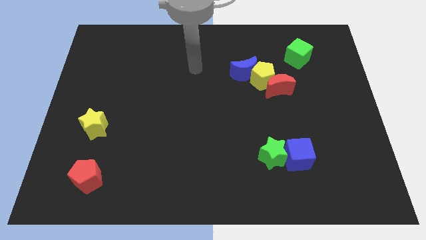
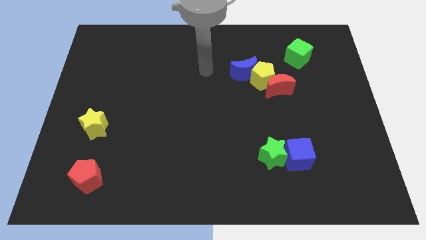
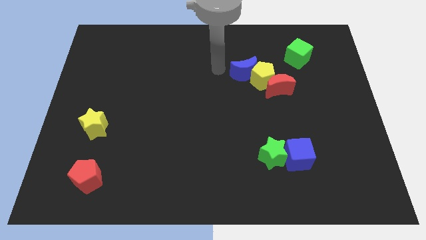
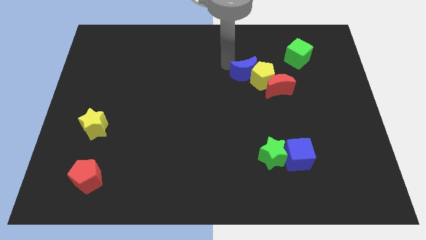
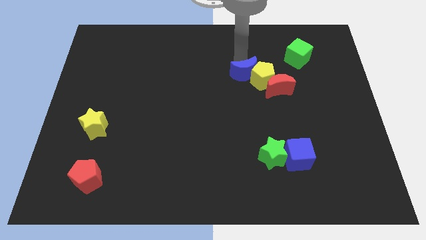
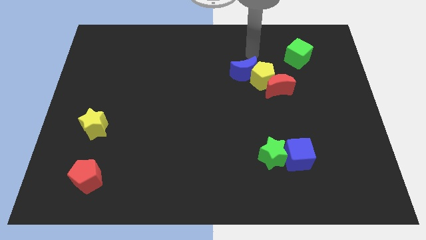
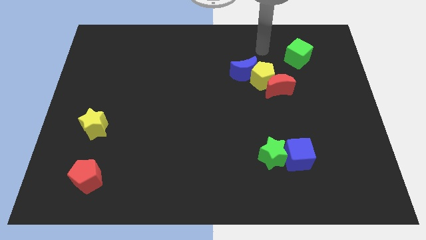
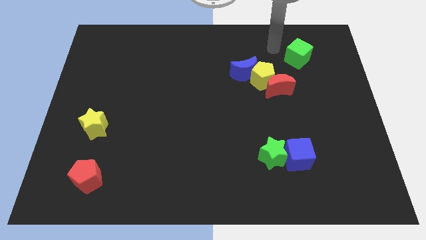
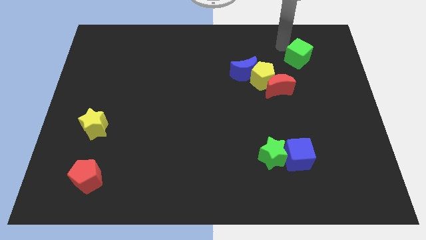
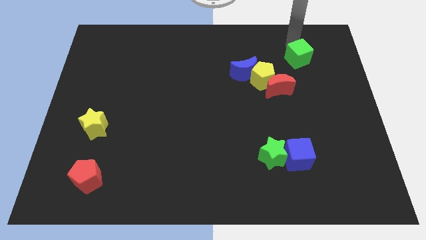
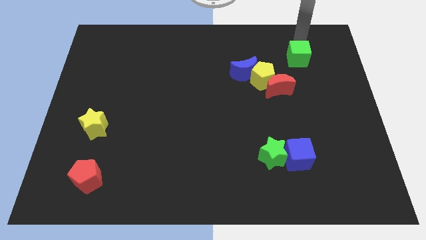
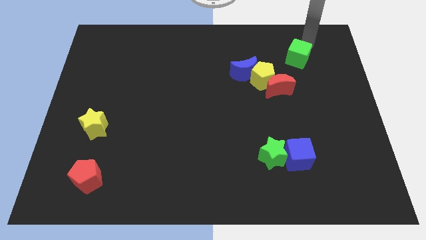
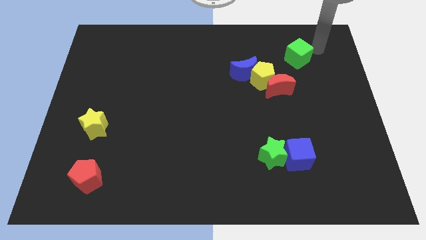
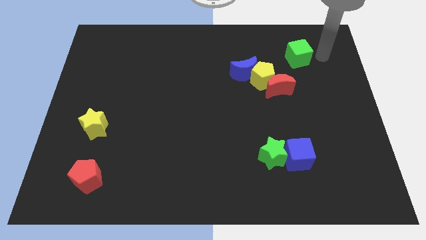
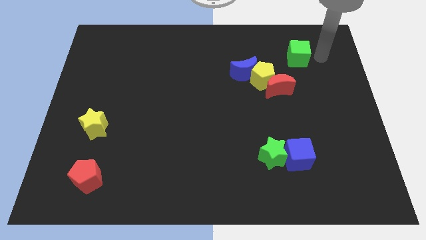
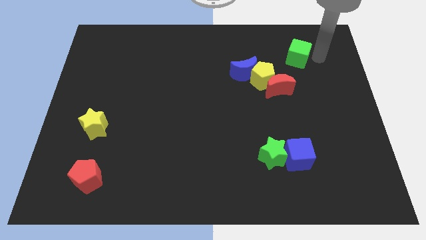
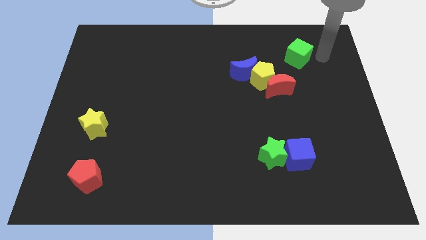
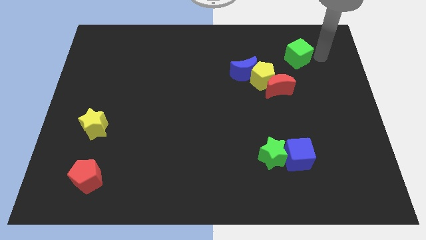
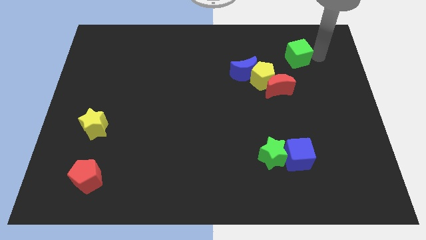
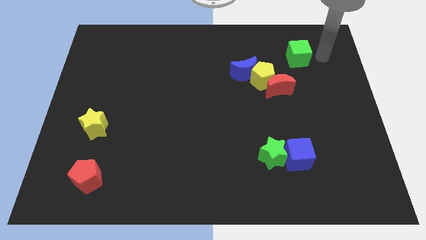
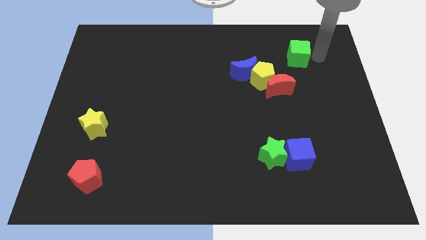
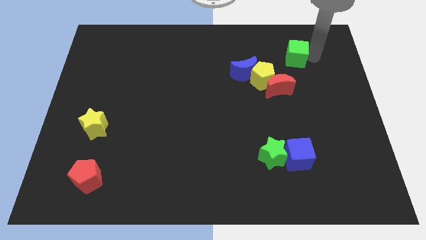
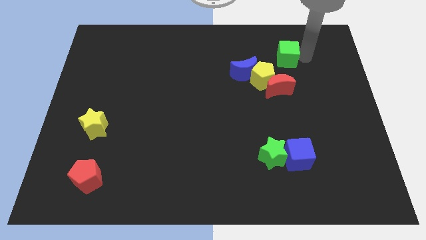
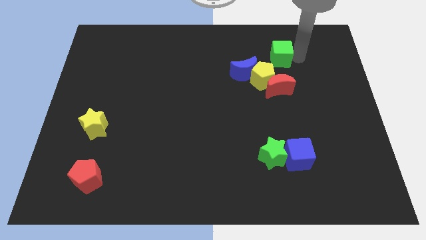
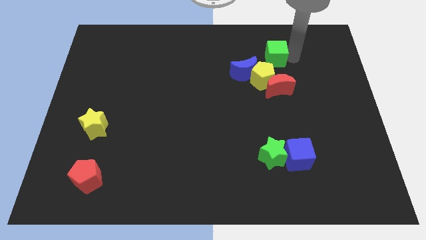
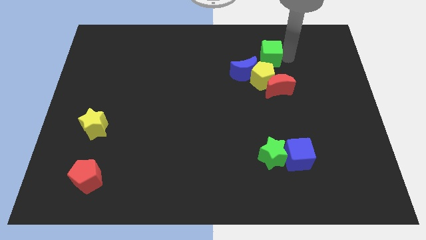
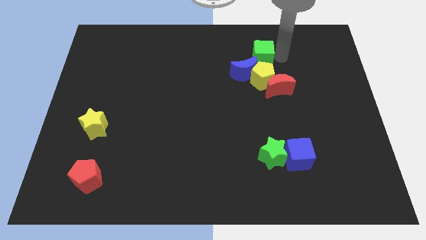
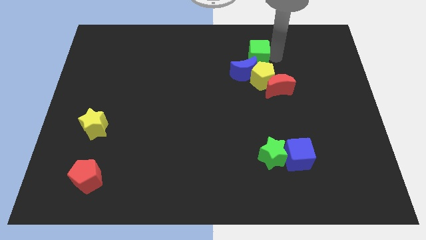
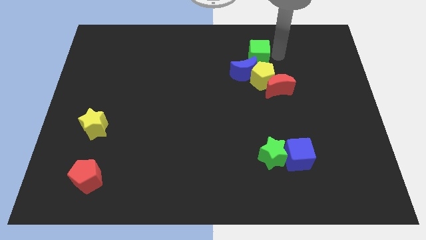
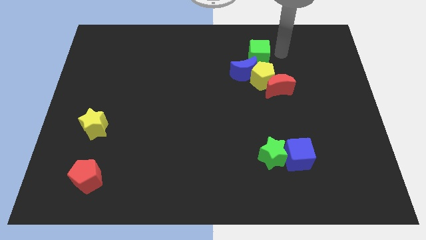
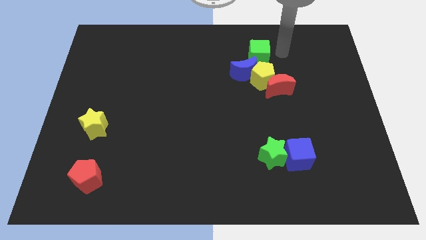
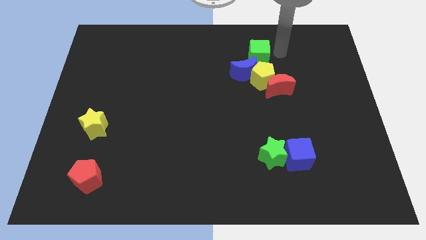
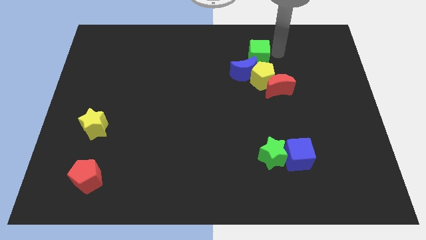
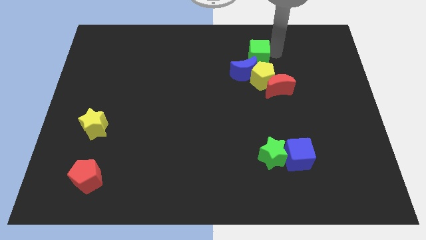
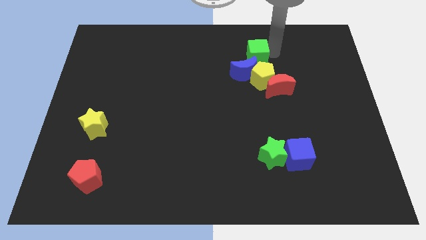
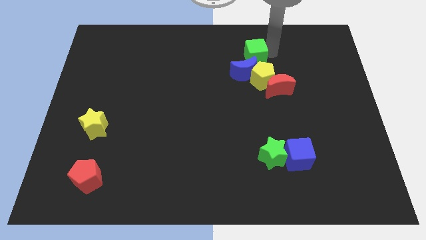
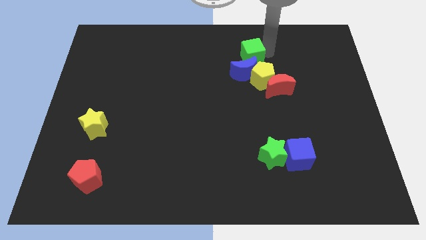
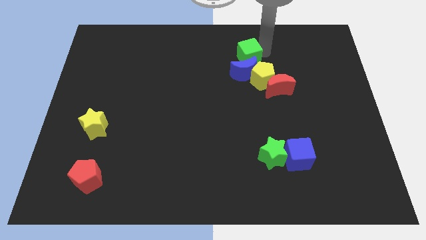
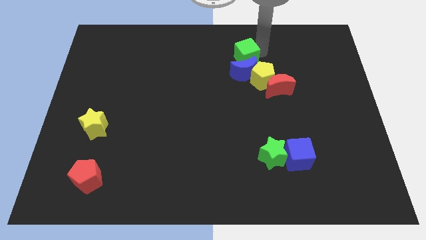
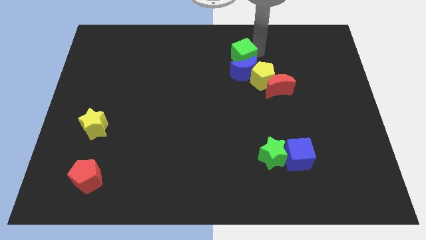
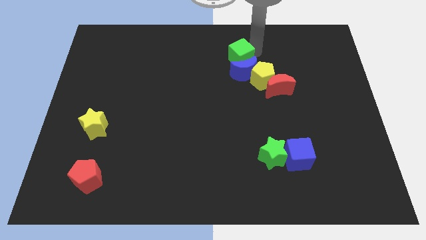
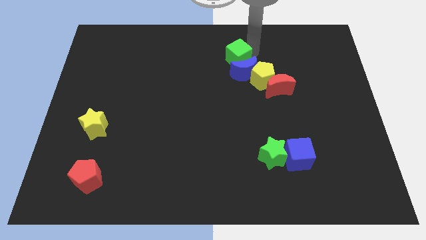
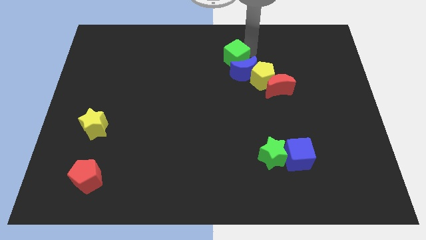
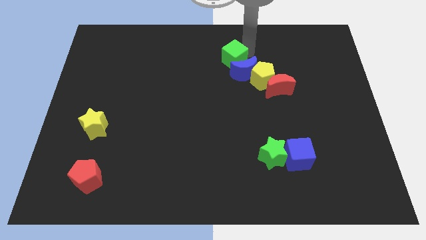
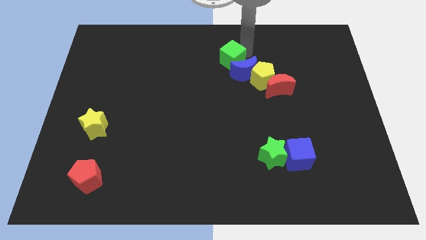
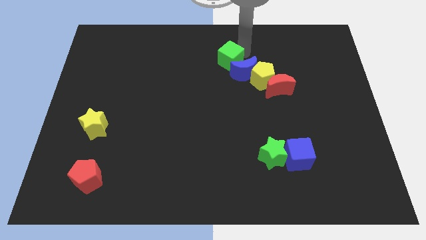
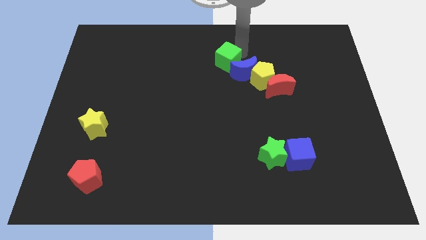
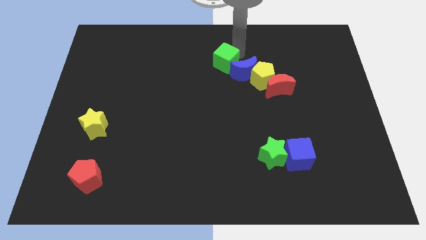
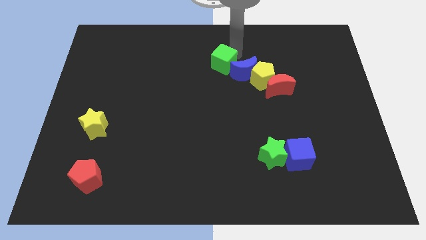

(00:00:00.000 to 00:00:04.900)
move the green cube to the middle of the board

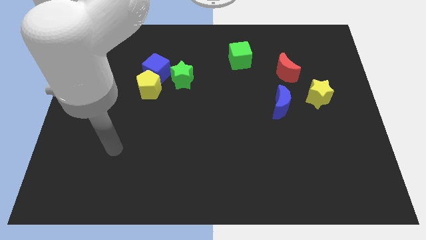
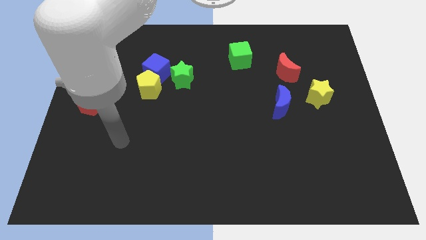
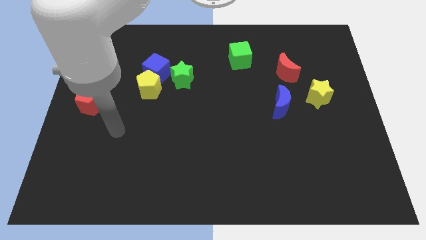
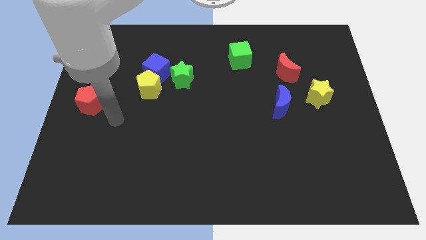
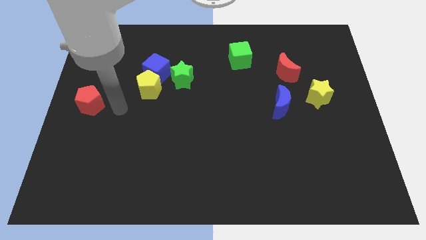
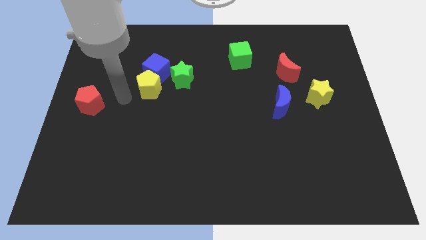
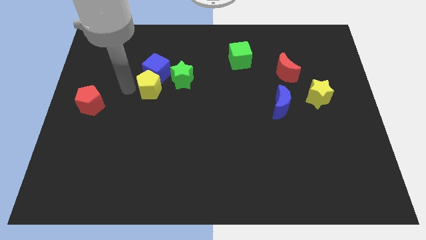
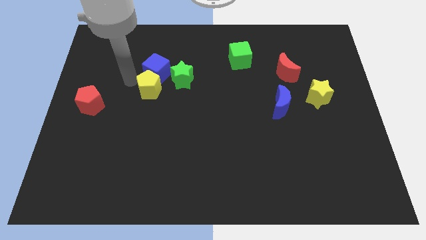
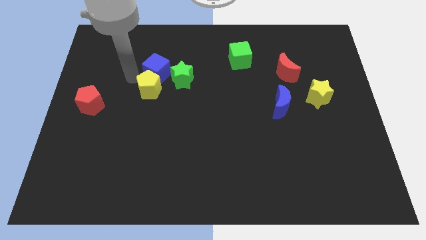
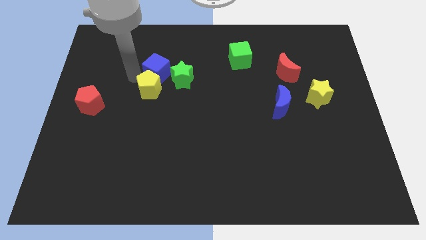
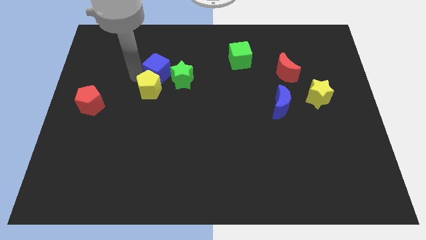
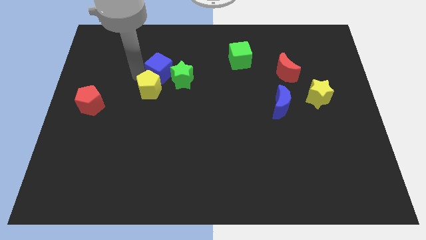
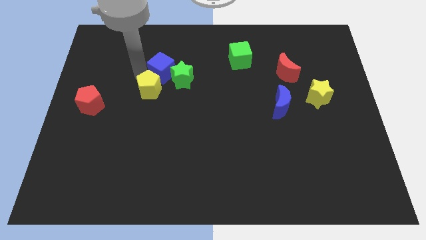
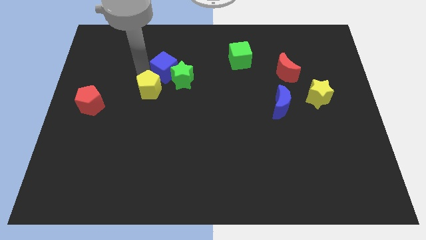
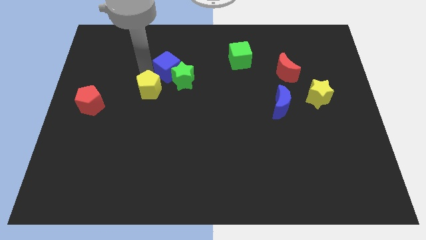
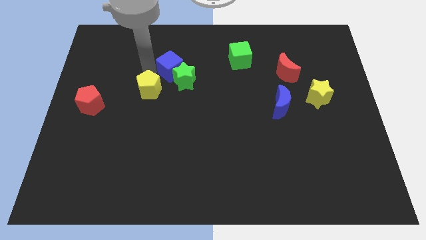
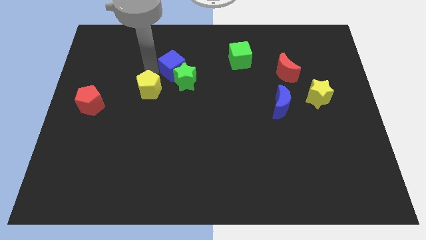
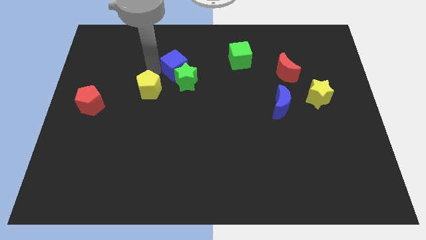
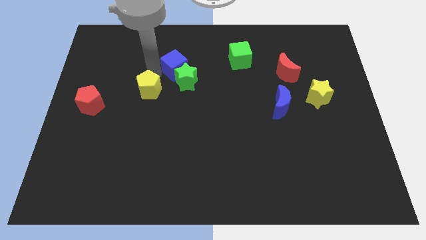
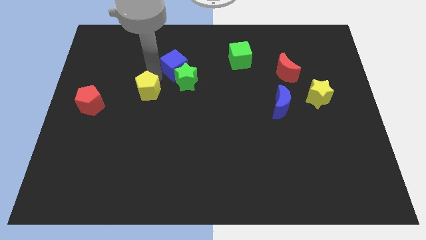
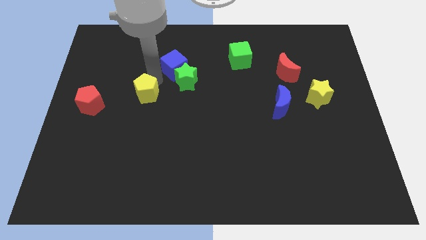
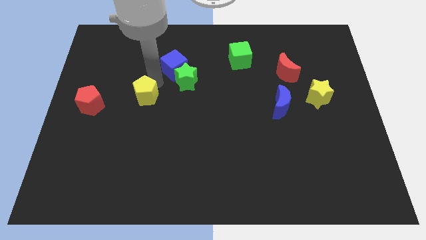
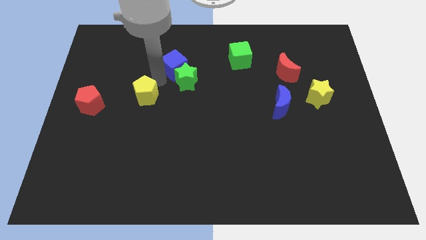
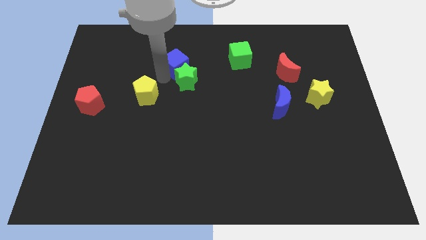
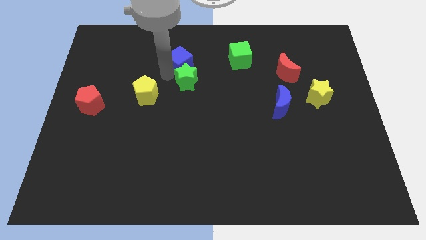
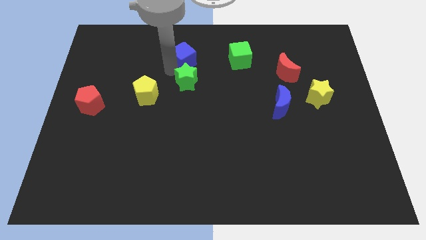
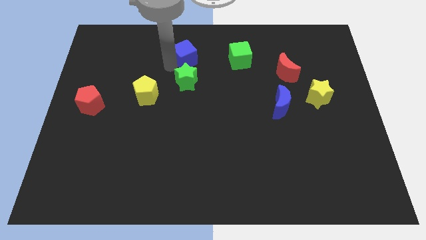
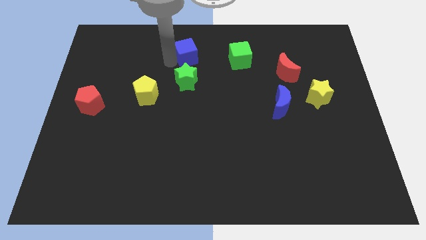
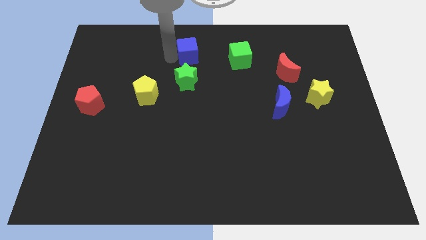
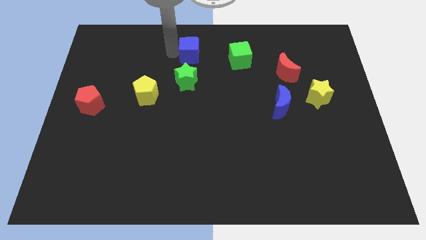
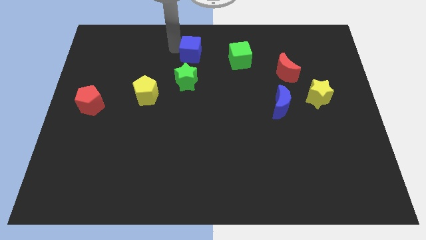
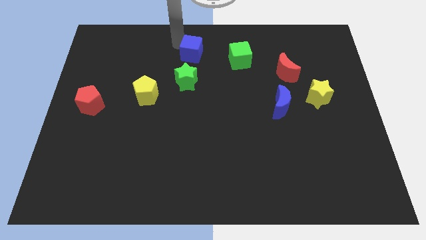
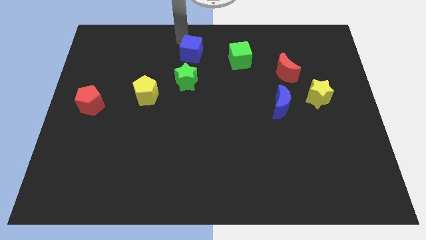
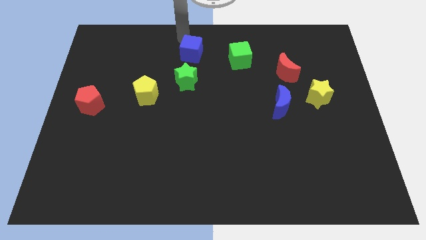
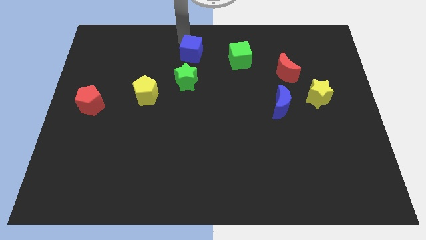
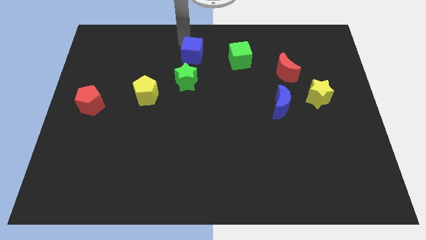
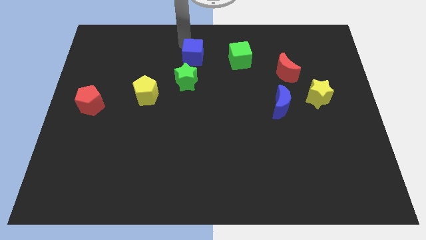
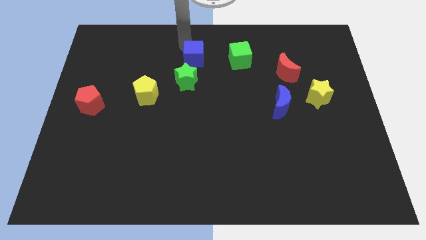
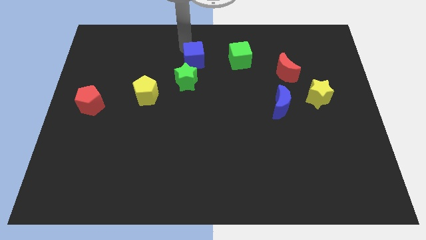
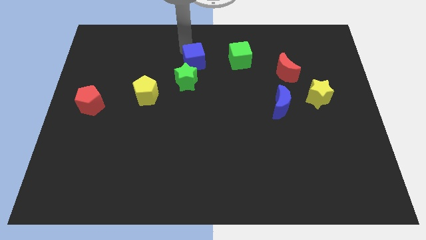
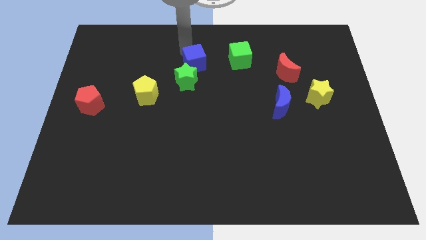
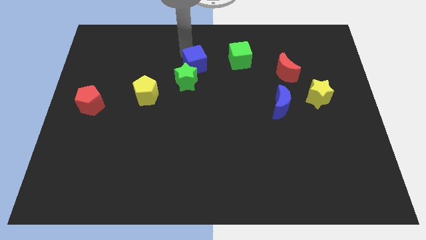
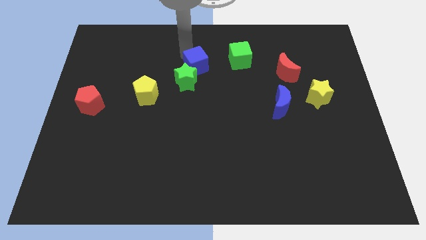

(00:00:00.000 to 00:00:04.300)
move the blue cube to the center of the board
